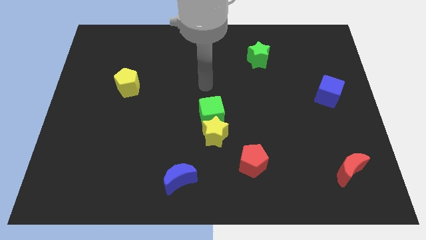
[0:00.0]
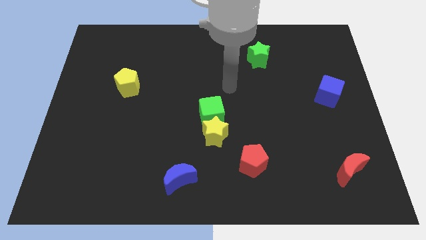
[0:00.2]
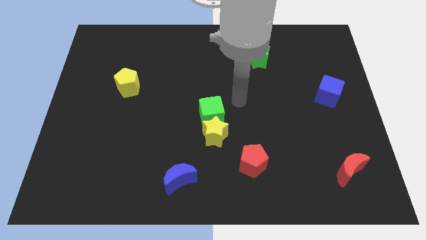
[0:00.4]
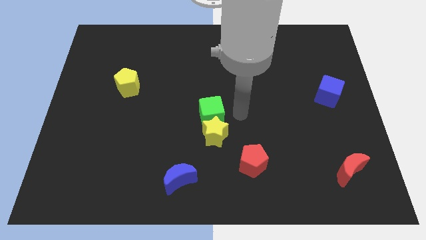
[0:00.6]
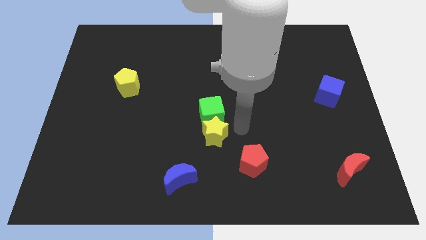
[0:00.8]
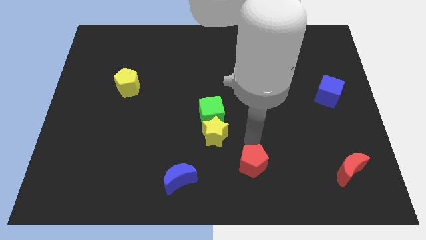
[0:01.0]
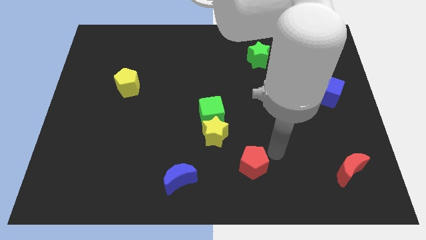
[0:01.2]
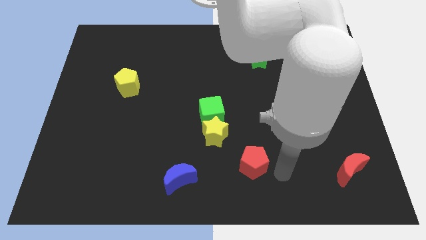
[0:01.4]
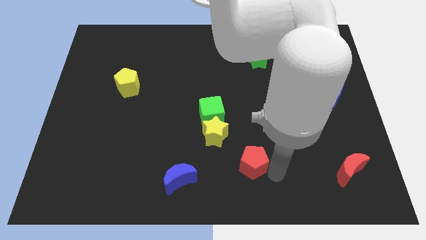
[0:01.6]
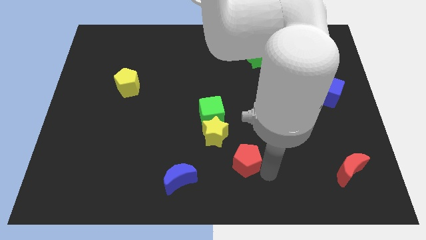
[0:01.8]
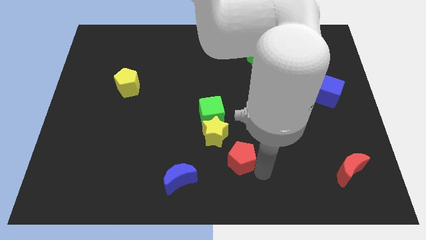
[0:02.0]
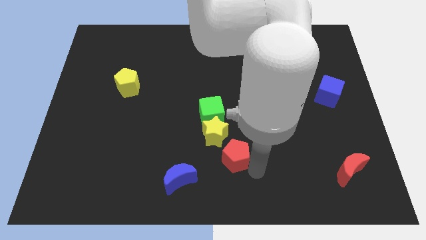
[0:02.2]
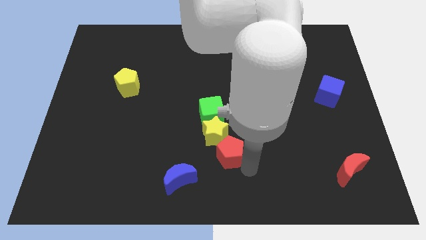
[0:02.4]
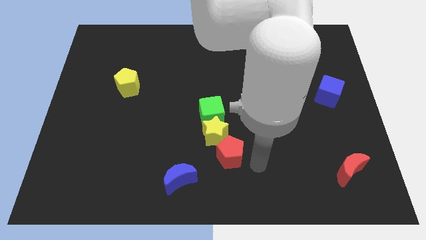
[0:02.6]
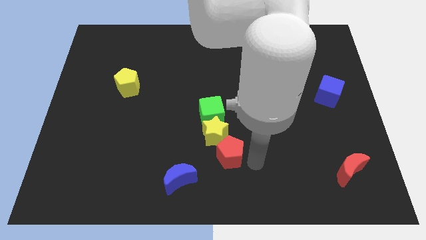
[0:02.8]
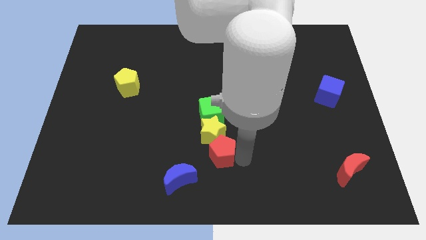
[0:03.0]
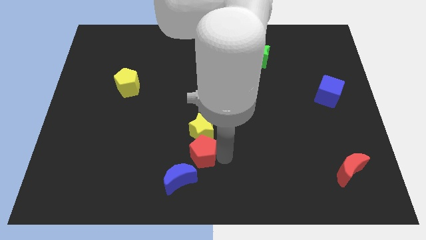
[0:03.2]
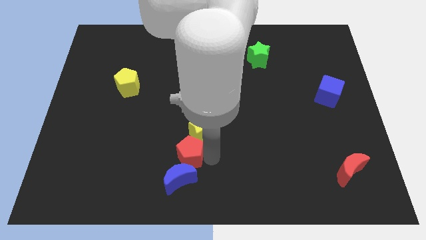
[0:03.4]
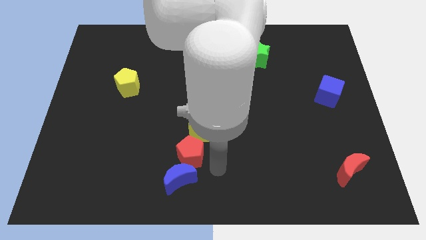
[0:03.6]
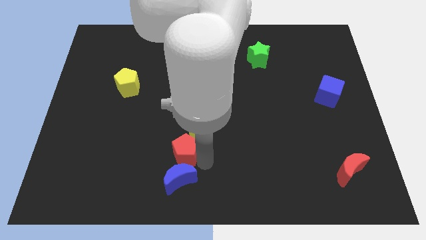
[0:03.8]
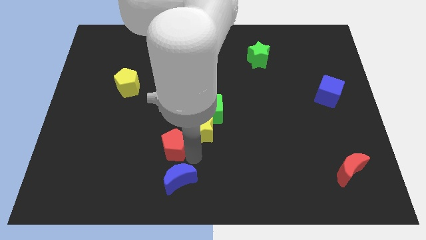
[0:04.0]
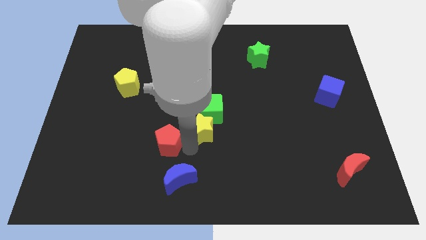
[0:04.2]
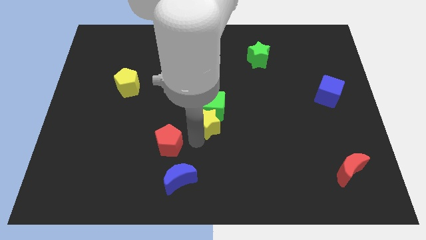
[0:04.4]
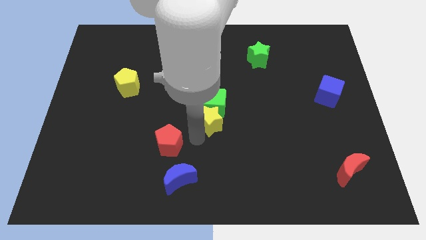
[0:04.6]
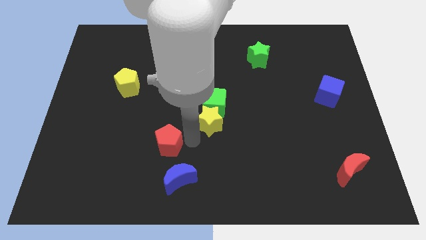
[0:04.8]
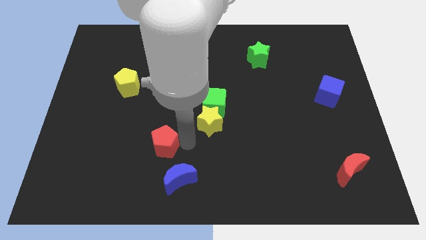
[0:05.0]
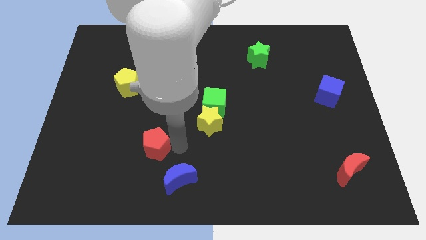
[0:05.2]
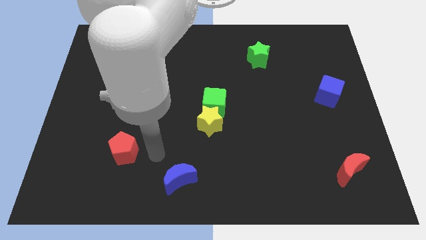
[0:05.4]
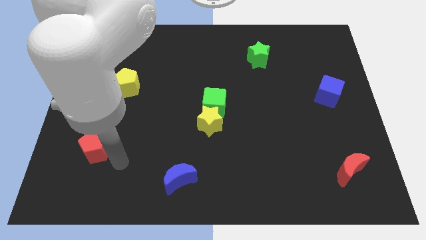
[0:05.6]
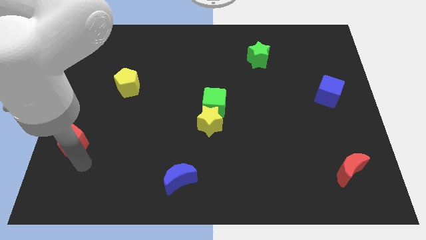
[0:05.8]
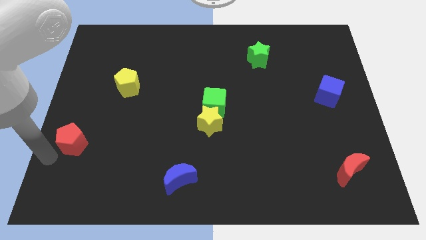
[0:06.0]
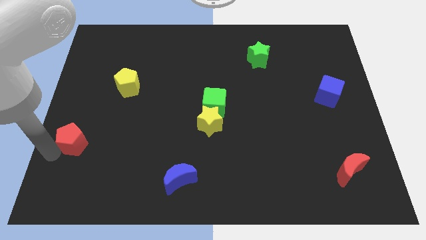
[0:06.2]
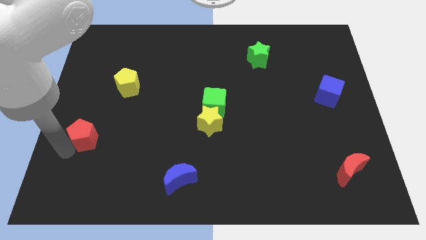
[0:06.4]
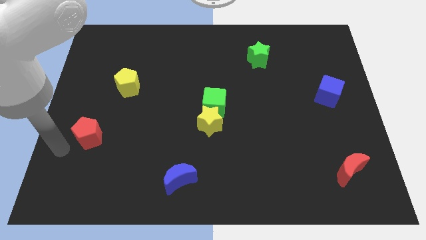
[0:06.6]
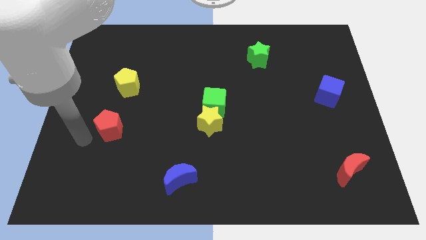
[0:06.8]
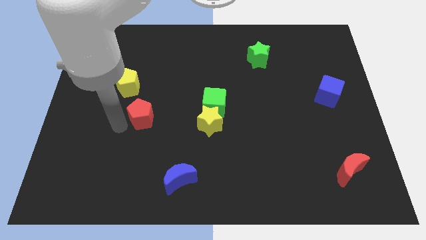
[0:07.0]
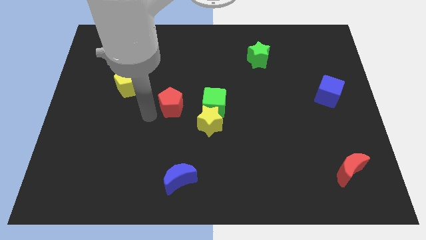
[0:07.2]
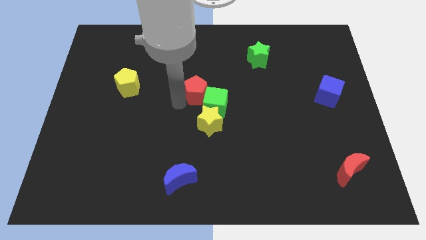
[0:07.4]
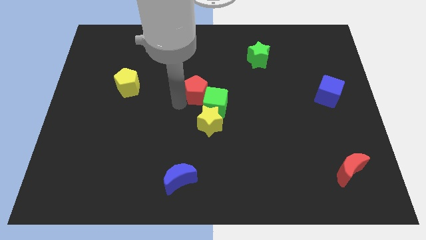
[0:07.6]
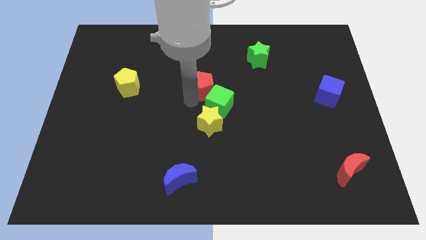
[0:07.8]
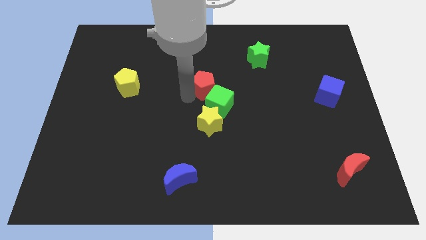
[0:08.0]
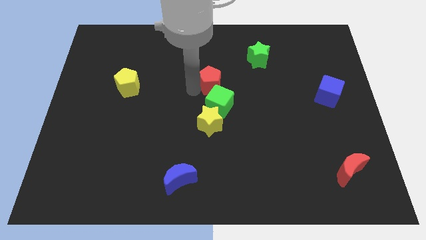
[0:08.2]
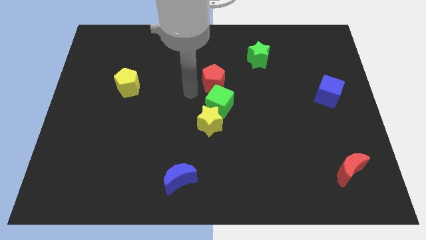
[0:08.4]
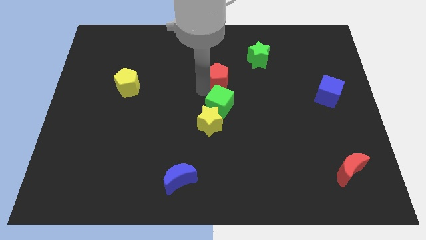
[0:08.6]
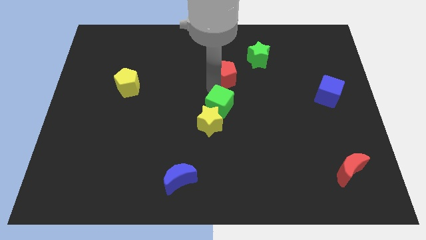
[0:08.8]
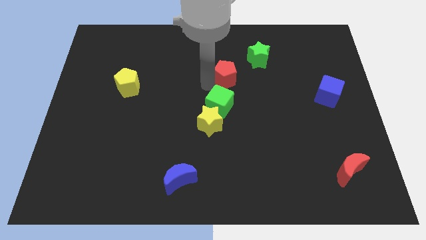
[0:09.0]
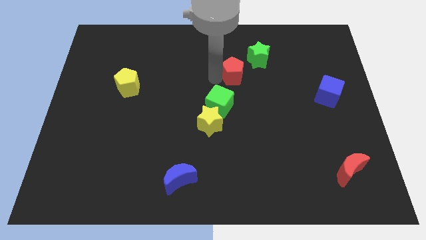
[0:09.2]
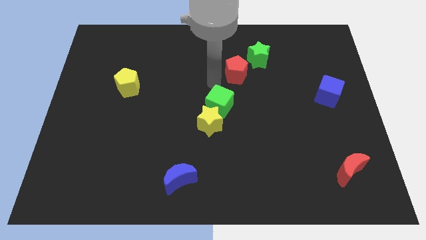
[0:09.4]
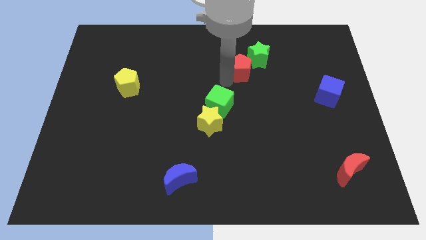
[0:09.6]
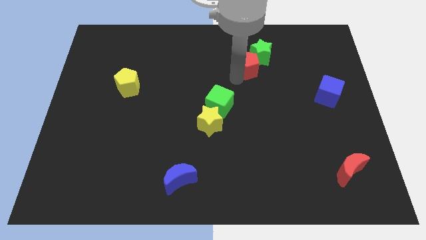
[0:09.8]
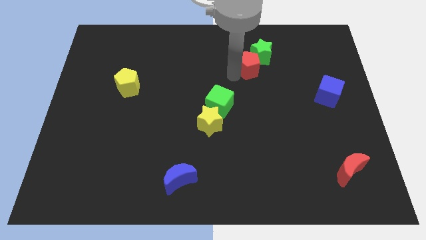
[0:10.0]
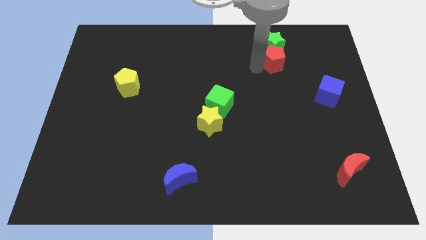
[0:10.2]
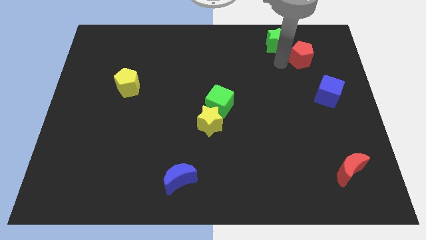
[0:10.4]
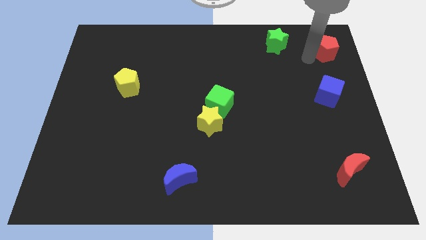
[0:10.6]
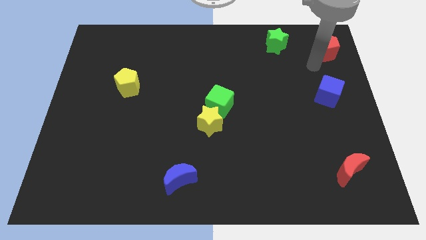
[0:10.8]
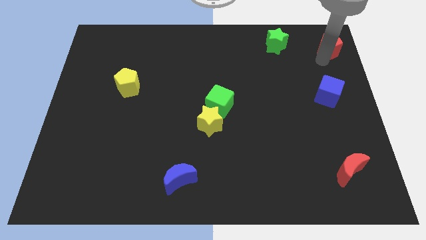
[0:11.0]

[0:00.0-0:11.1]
put the red pentagon to the top right

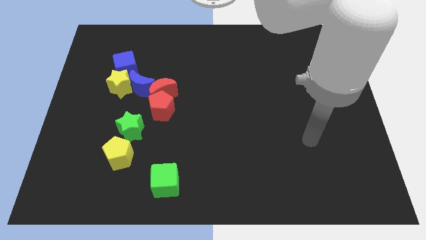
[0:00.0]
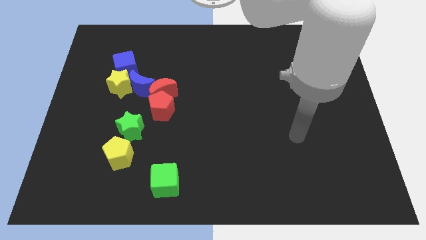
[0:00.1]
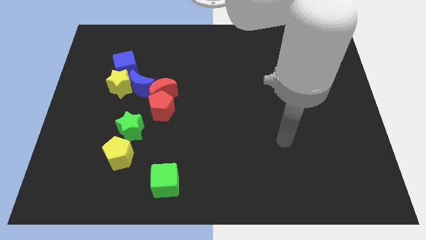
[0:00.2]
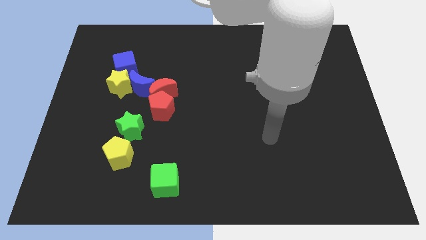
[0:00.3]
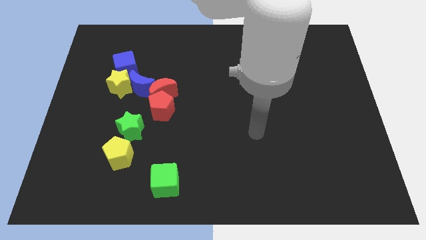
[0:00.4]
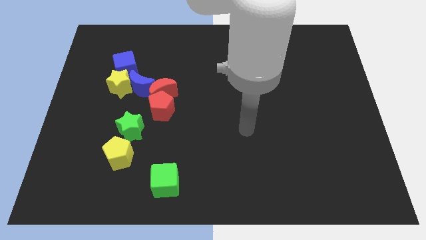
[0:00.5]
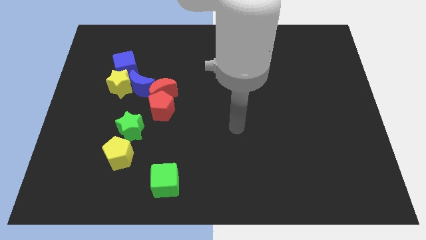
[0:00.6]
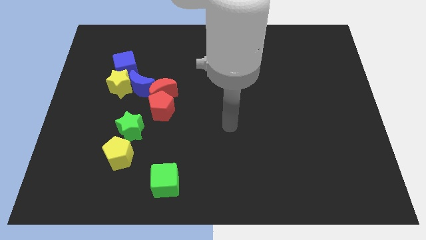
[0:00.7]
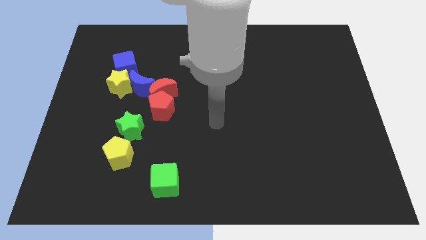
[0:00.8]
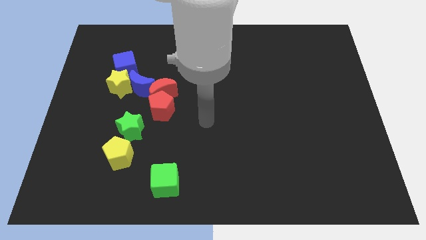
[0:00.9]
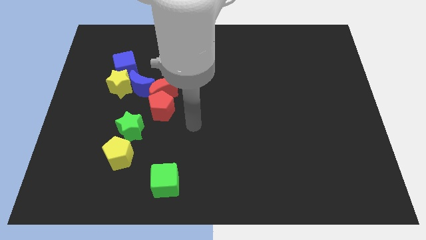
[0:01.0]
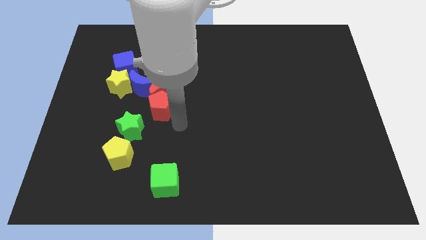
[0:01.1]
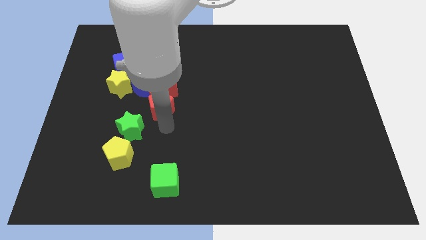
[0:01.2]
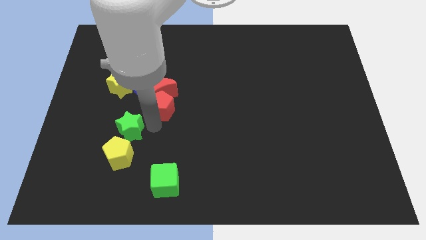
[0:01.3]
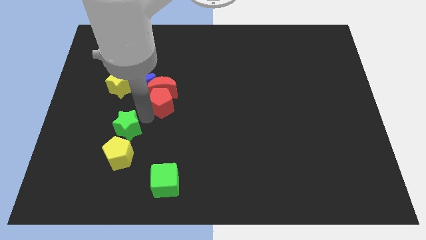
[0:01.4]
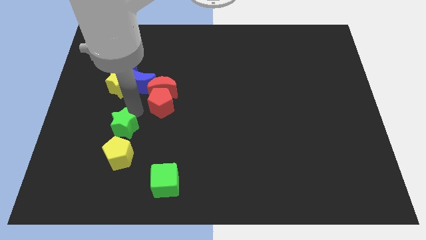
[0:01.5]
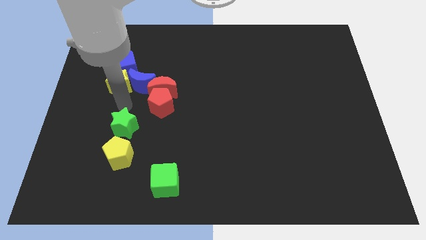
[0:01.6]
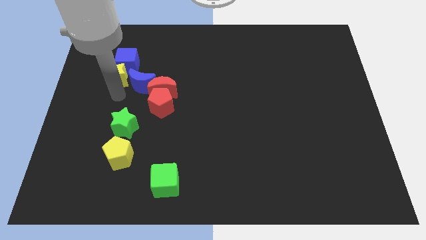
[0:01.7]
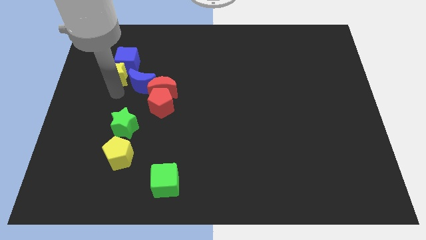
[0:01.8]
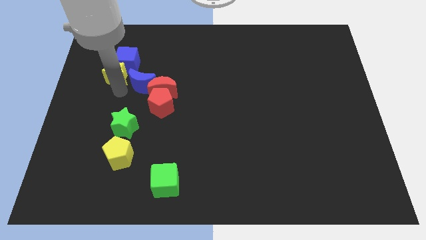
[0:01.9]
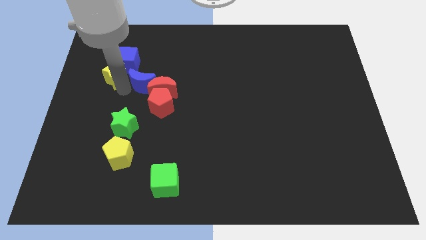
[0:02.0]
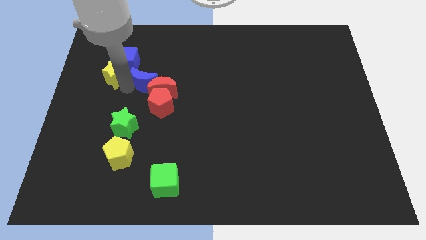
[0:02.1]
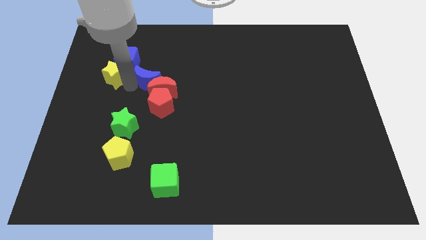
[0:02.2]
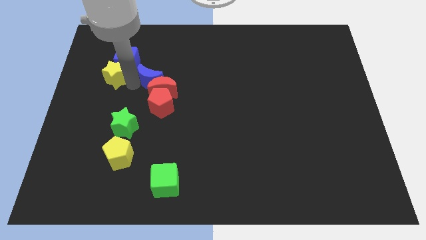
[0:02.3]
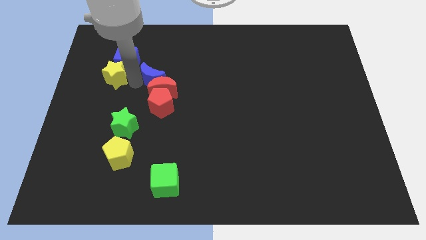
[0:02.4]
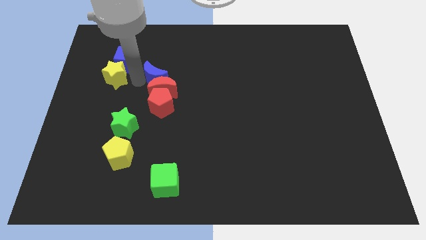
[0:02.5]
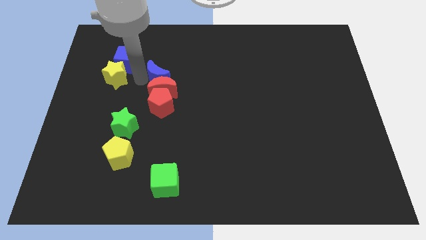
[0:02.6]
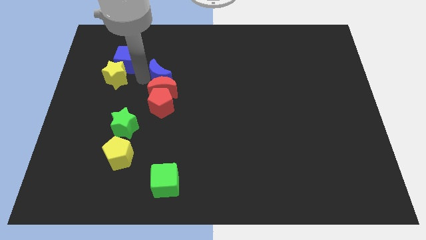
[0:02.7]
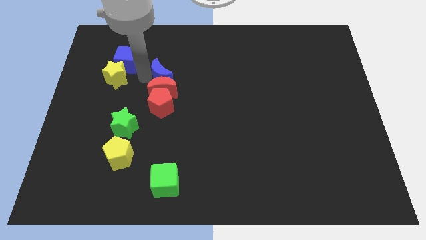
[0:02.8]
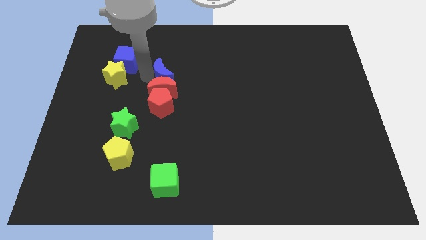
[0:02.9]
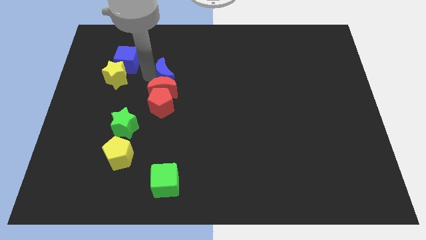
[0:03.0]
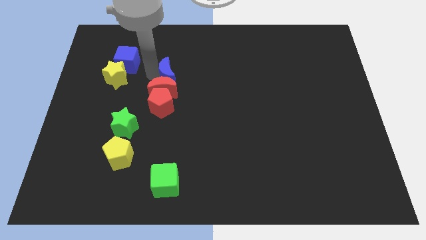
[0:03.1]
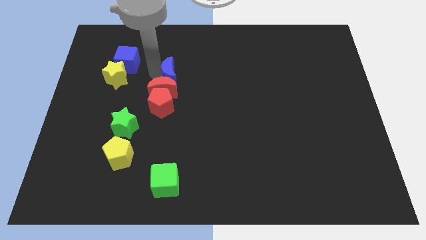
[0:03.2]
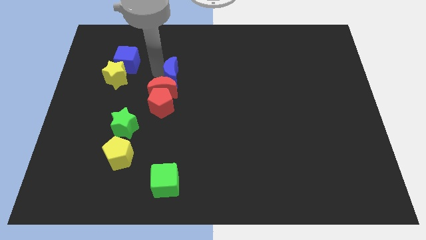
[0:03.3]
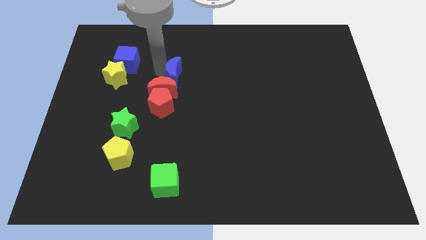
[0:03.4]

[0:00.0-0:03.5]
slide the blue moon to the center of the board
